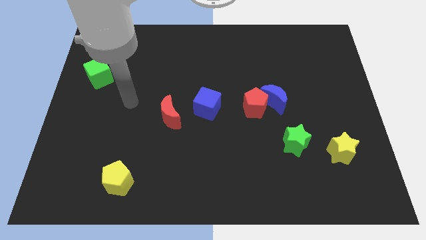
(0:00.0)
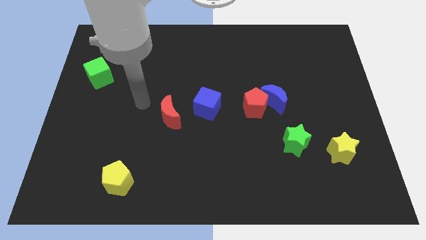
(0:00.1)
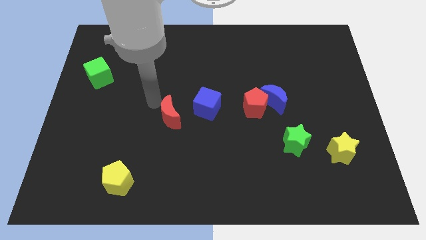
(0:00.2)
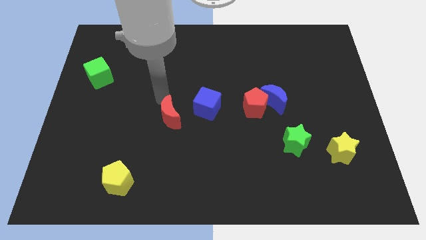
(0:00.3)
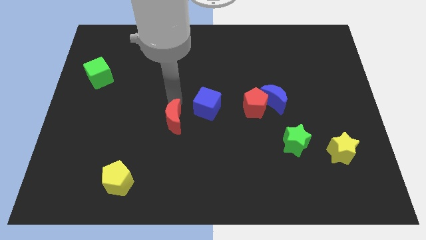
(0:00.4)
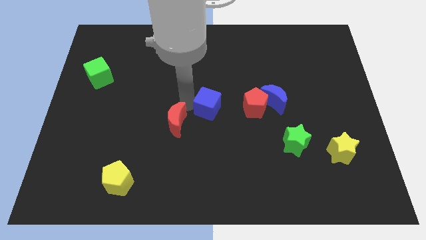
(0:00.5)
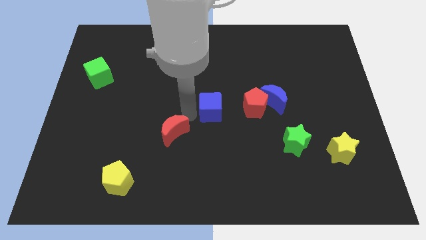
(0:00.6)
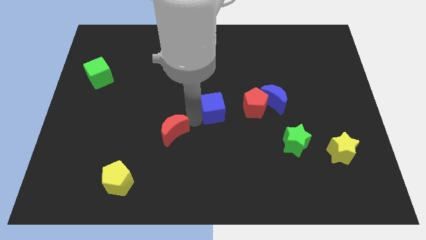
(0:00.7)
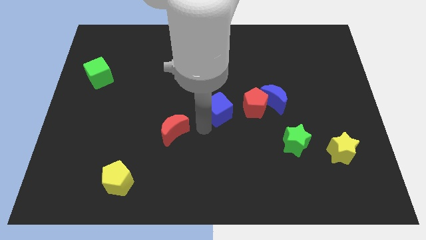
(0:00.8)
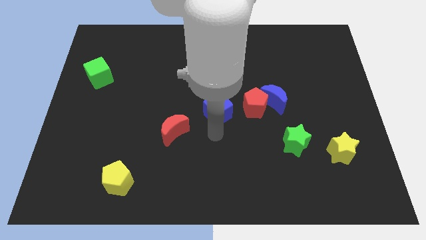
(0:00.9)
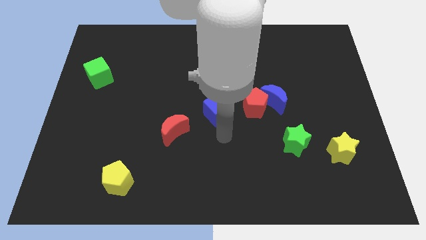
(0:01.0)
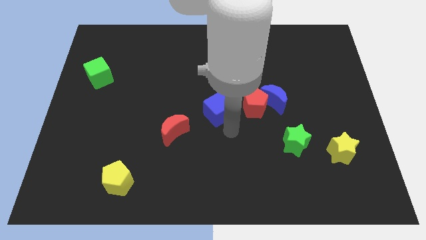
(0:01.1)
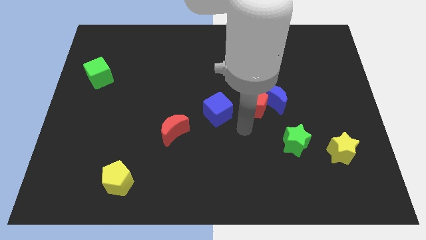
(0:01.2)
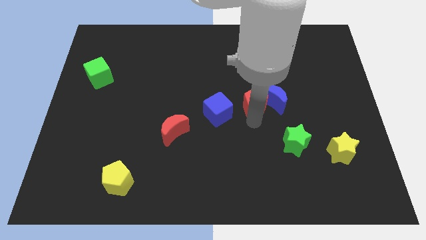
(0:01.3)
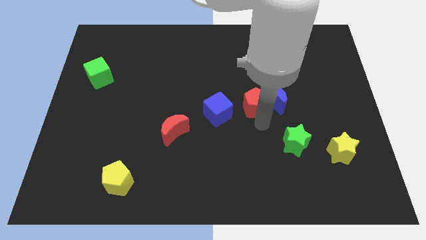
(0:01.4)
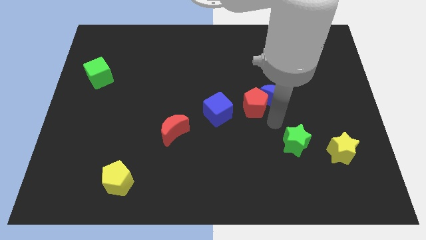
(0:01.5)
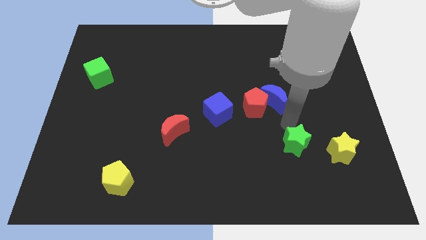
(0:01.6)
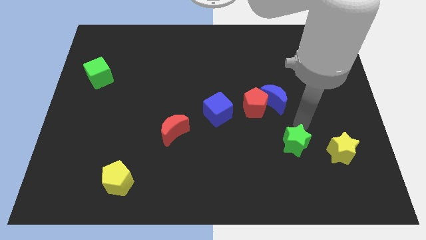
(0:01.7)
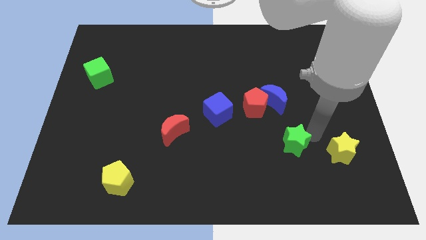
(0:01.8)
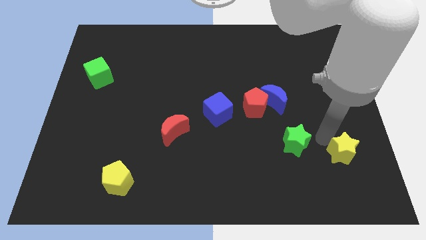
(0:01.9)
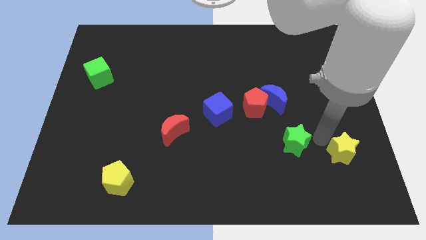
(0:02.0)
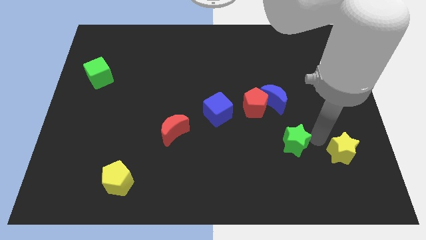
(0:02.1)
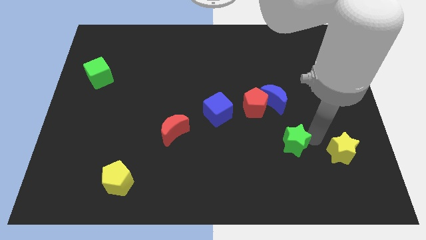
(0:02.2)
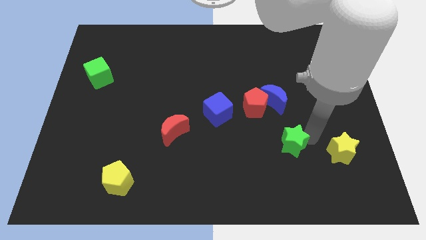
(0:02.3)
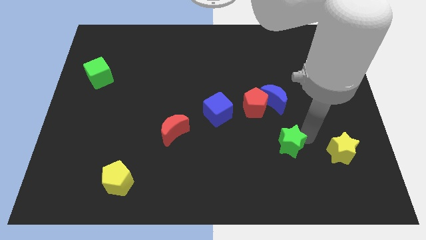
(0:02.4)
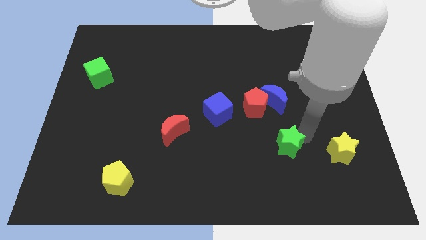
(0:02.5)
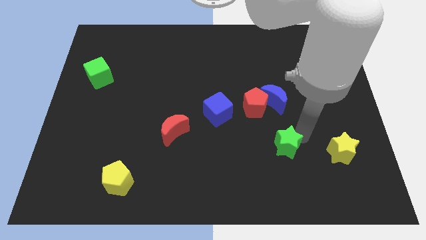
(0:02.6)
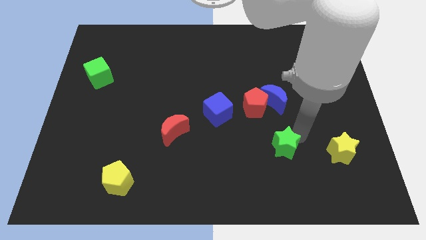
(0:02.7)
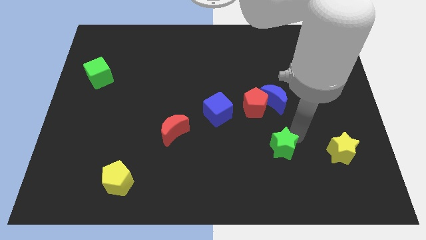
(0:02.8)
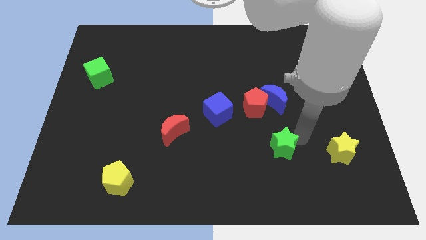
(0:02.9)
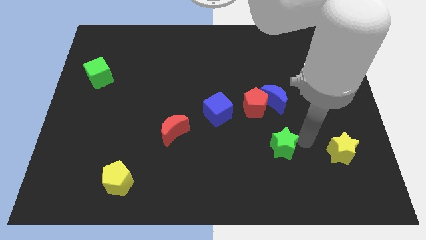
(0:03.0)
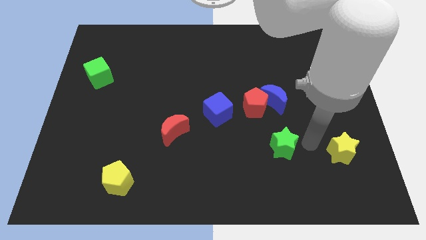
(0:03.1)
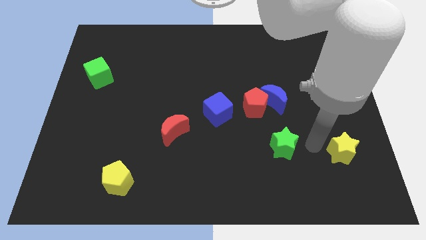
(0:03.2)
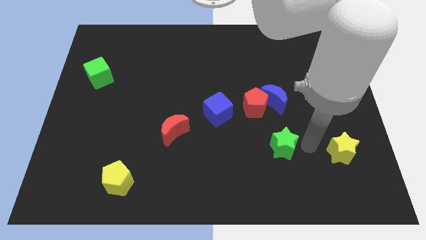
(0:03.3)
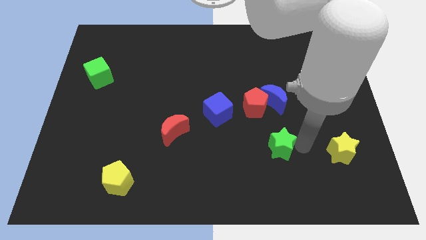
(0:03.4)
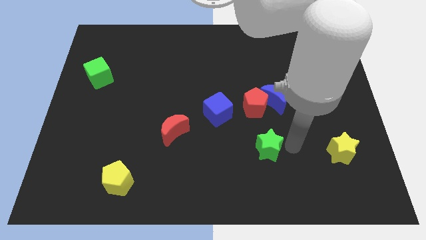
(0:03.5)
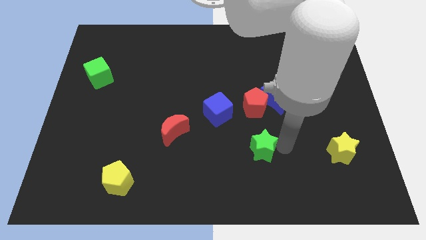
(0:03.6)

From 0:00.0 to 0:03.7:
move the green star slightly left

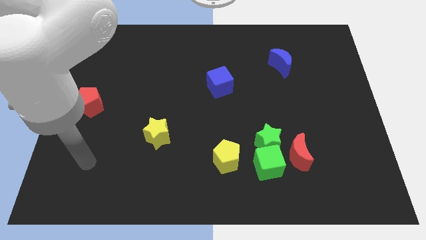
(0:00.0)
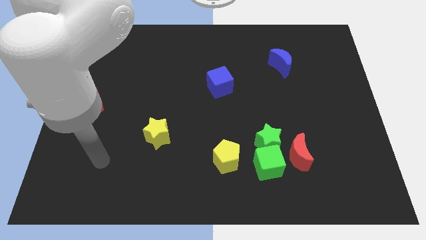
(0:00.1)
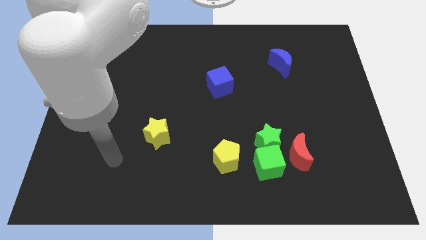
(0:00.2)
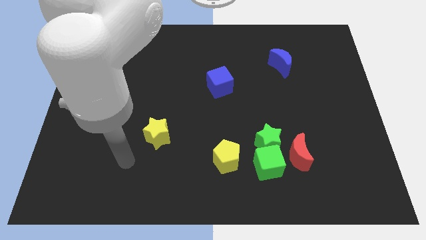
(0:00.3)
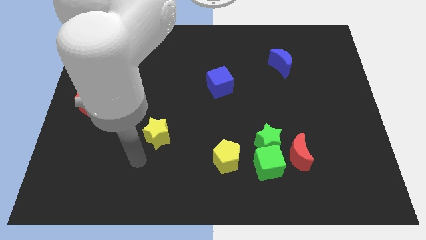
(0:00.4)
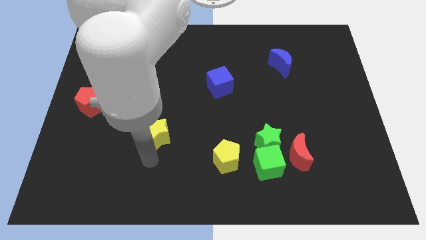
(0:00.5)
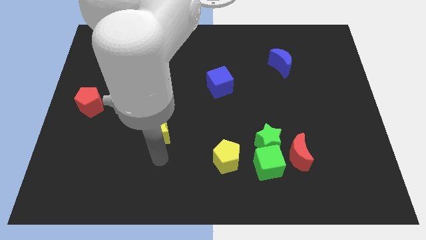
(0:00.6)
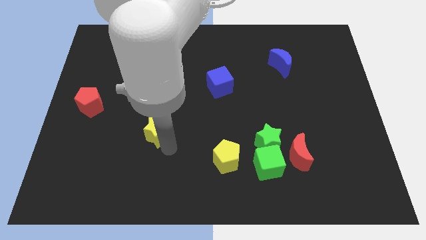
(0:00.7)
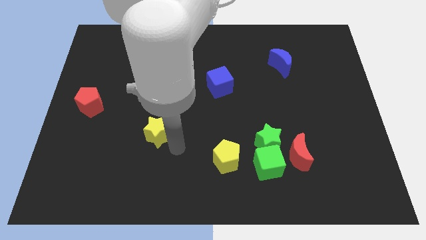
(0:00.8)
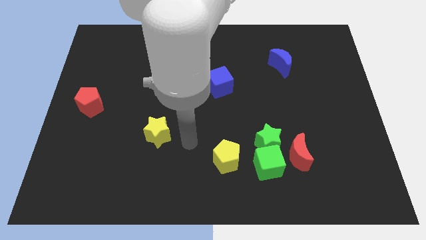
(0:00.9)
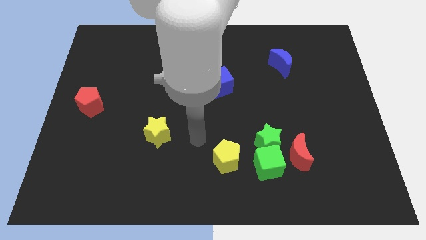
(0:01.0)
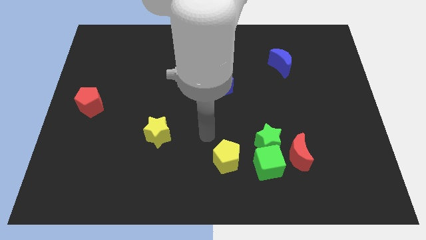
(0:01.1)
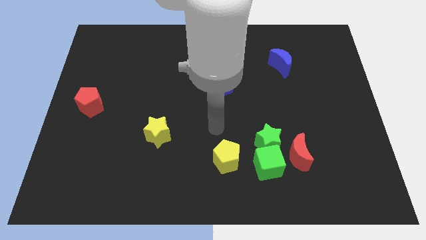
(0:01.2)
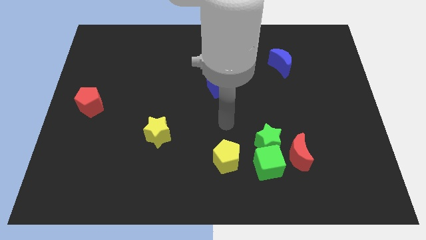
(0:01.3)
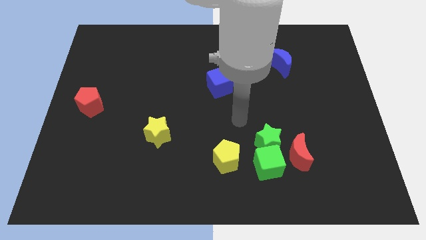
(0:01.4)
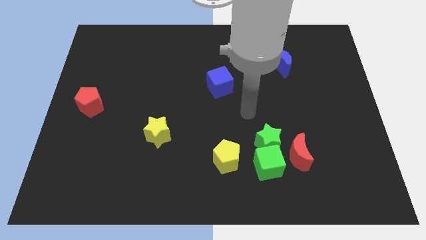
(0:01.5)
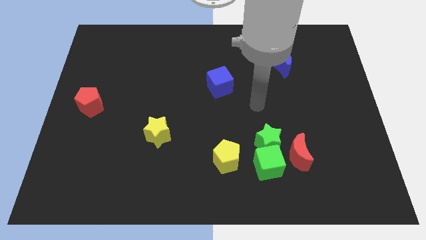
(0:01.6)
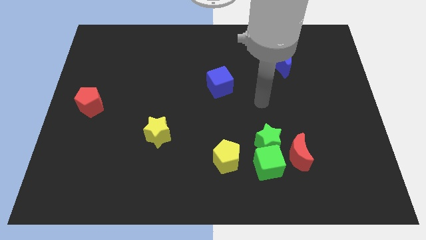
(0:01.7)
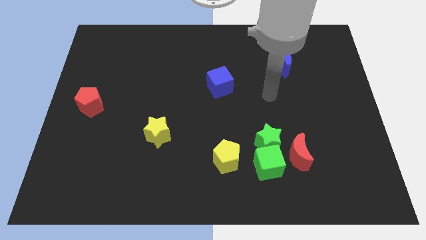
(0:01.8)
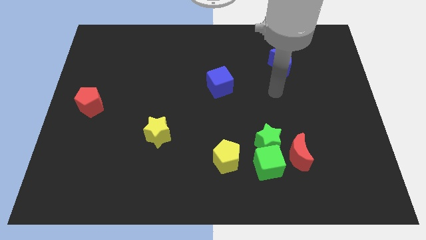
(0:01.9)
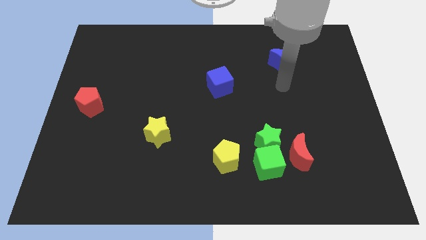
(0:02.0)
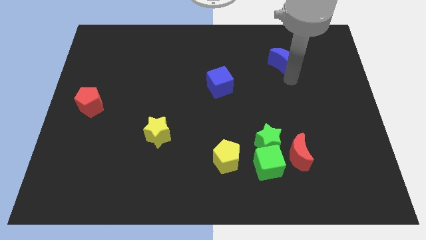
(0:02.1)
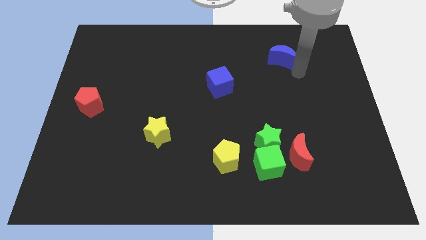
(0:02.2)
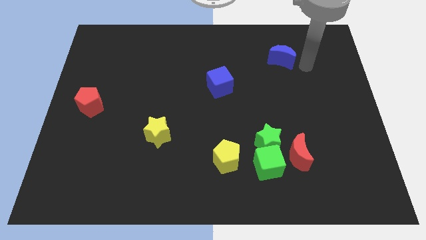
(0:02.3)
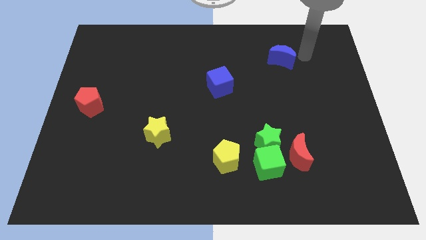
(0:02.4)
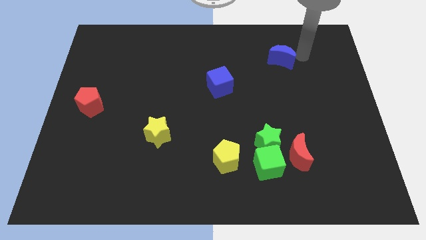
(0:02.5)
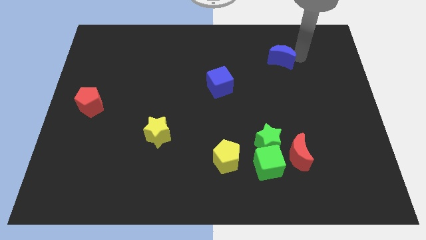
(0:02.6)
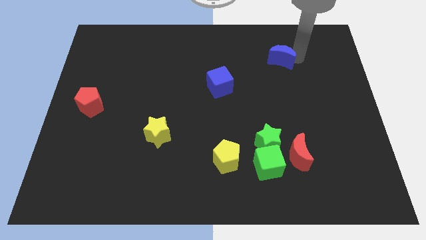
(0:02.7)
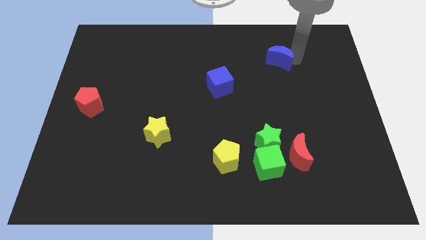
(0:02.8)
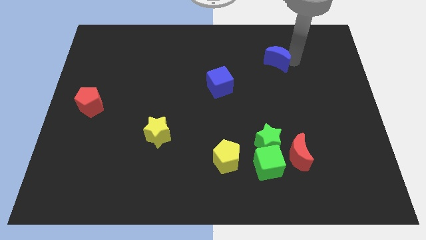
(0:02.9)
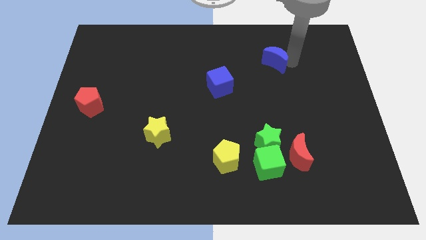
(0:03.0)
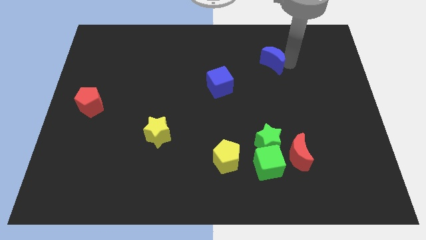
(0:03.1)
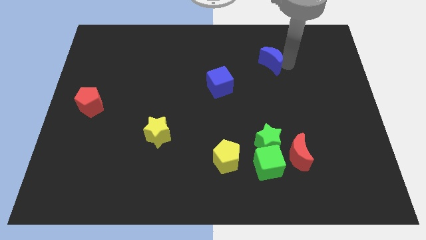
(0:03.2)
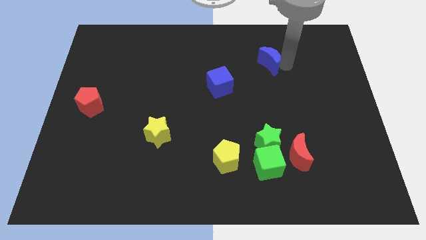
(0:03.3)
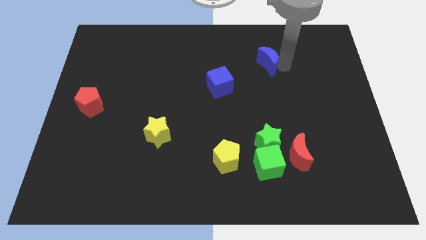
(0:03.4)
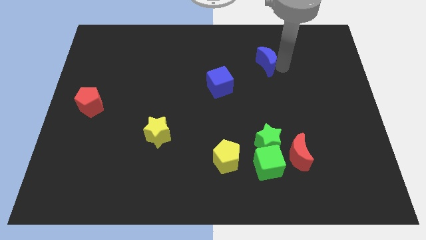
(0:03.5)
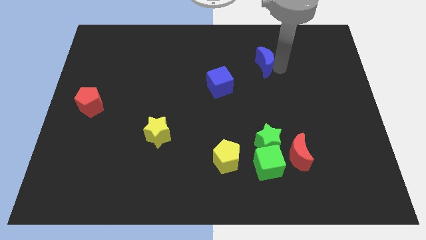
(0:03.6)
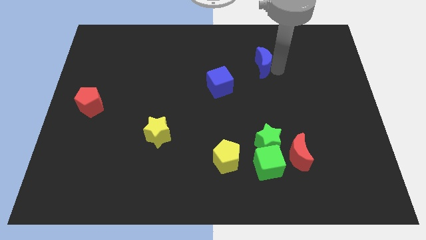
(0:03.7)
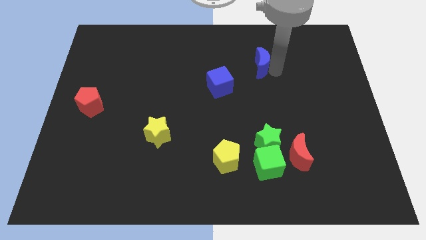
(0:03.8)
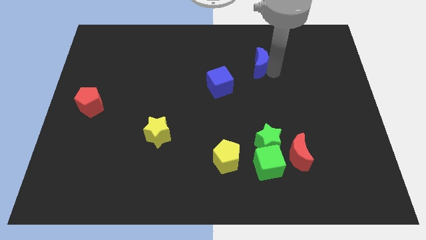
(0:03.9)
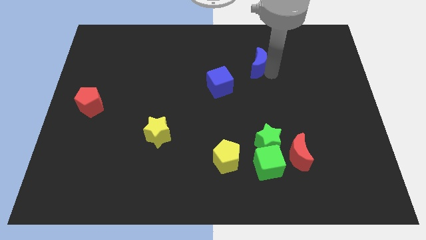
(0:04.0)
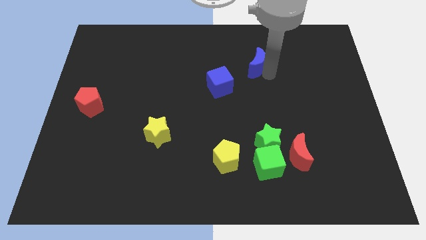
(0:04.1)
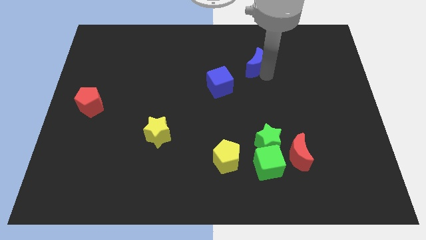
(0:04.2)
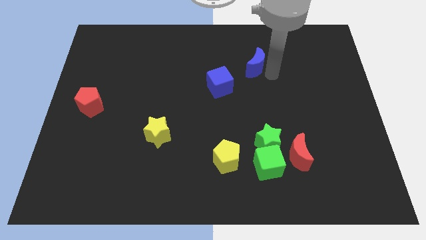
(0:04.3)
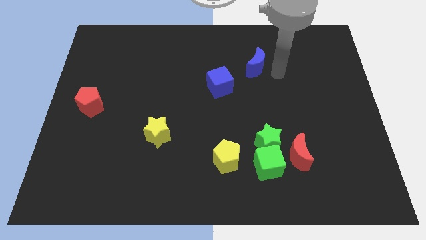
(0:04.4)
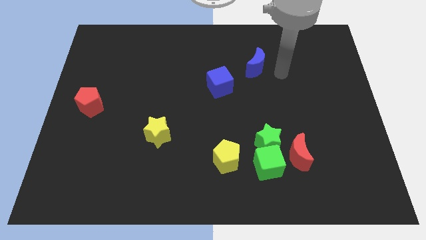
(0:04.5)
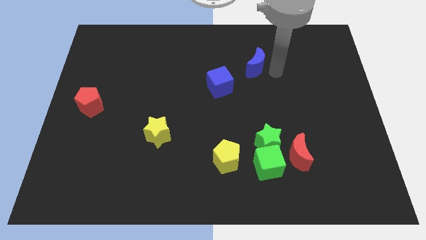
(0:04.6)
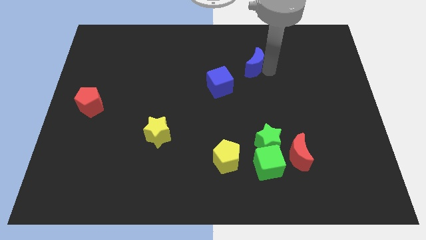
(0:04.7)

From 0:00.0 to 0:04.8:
slide the blue moon a little bit to the left
